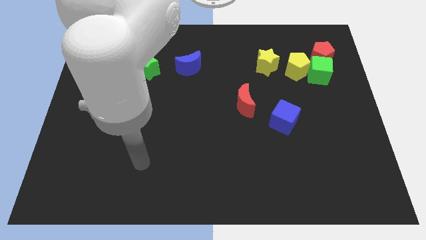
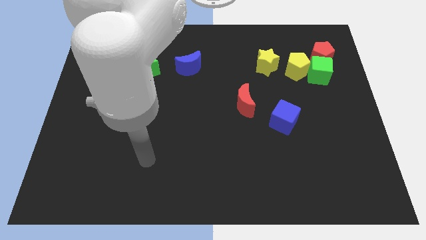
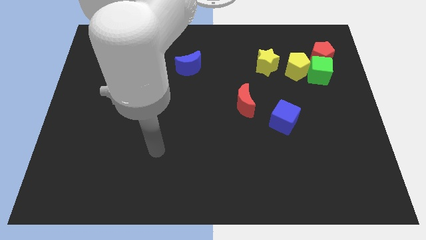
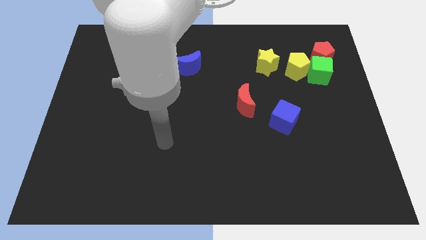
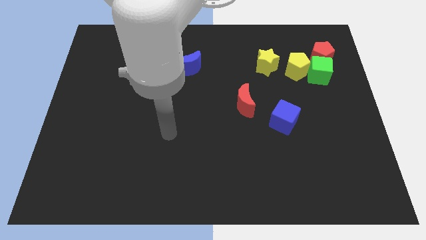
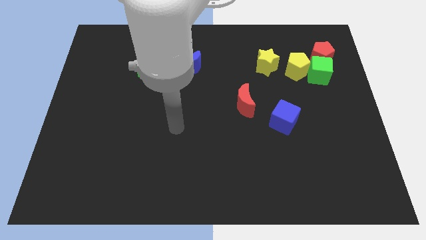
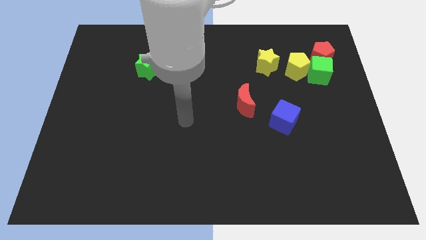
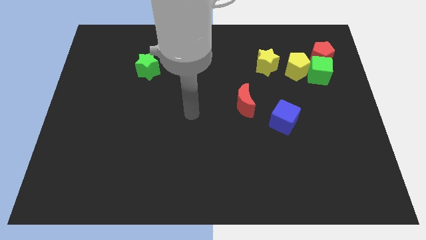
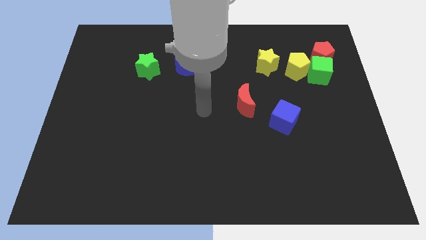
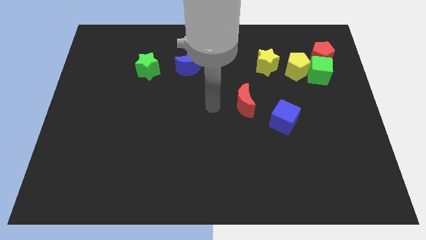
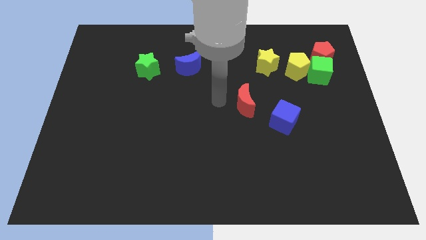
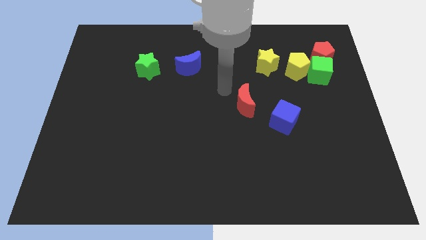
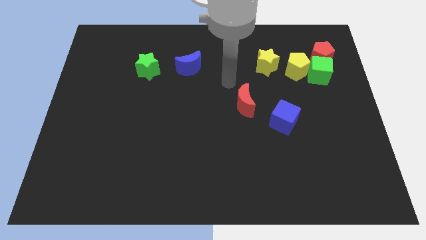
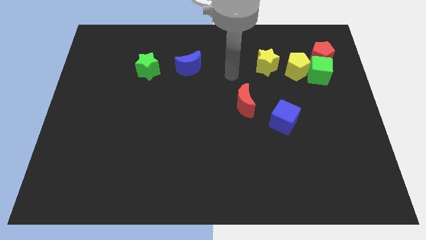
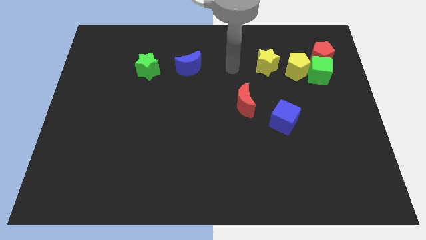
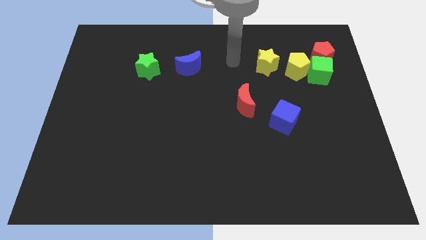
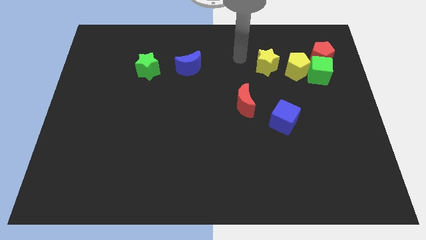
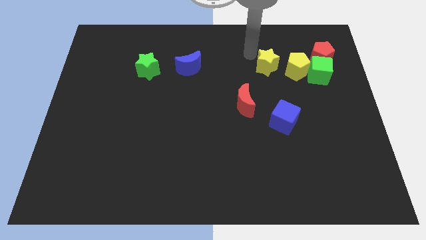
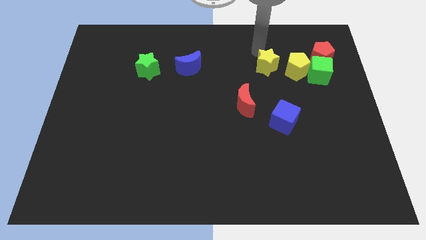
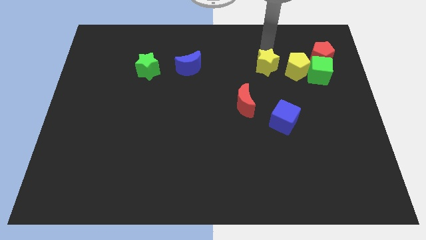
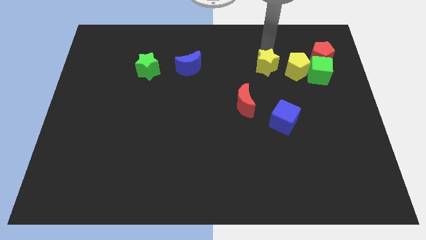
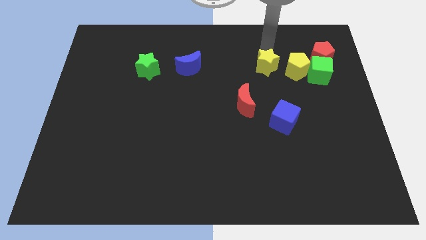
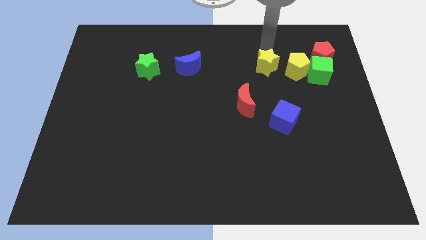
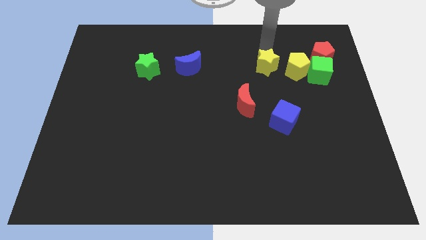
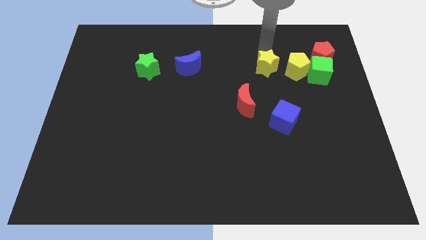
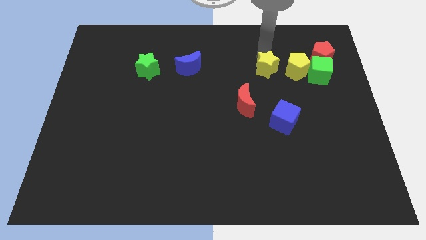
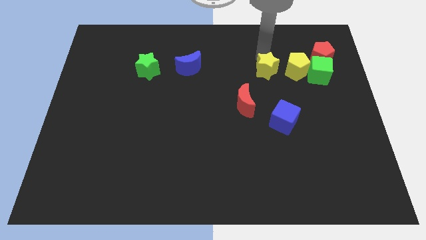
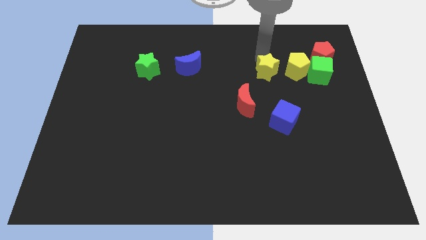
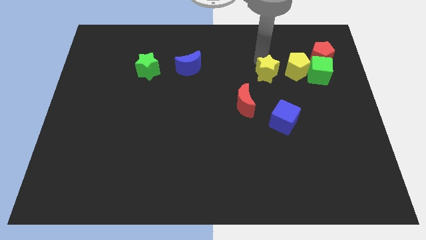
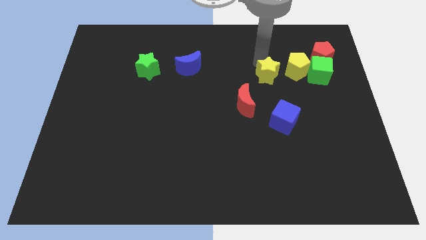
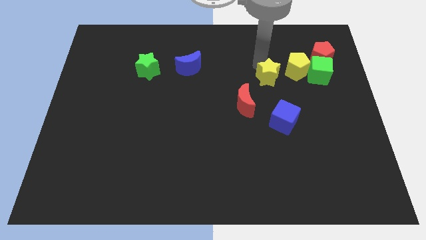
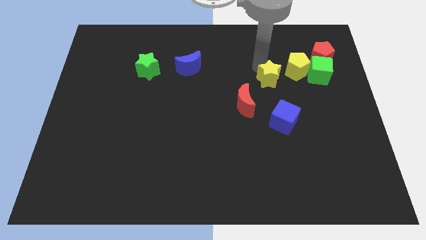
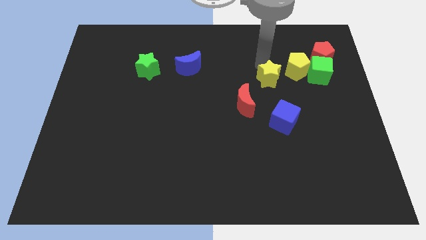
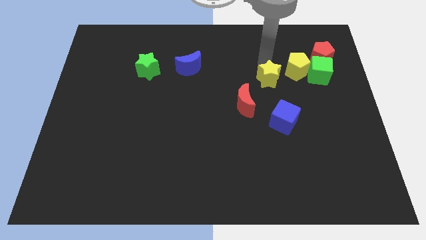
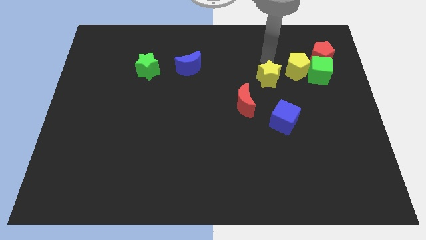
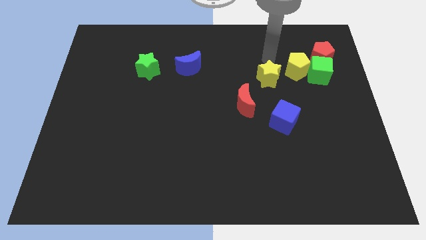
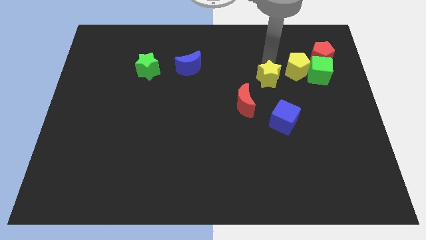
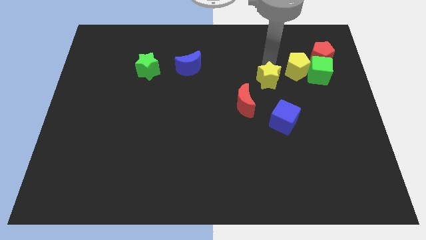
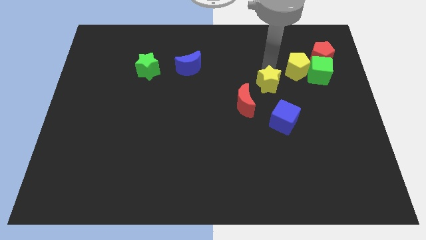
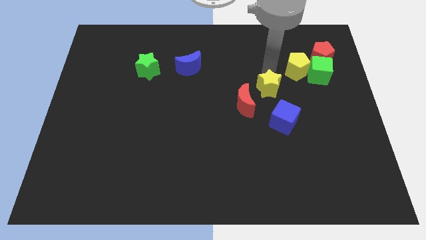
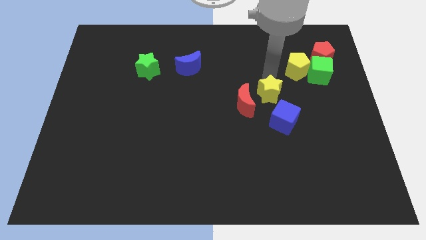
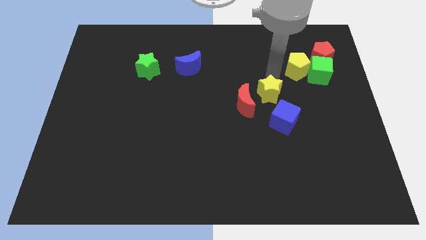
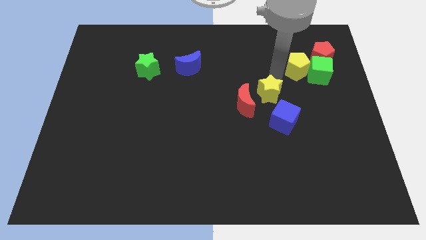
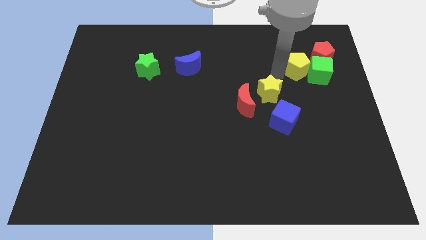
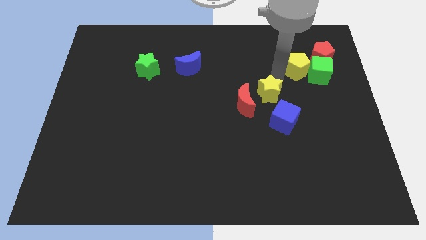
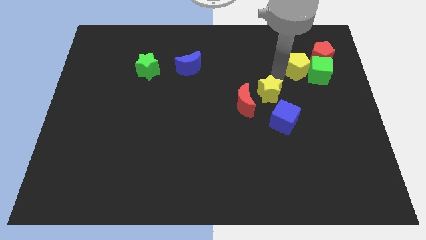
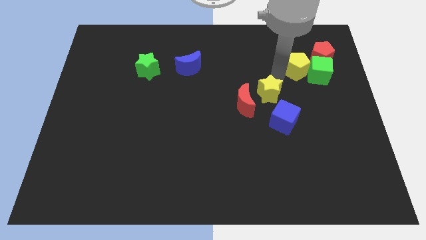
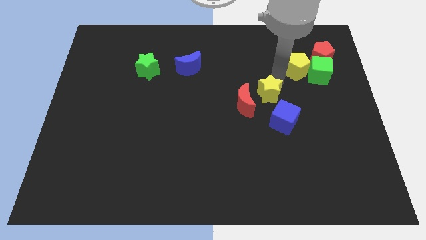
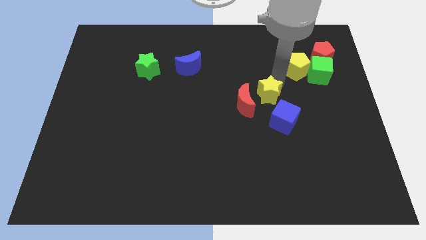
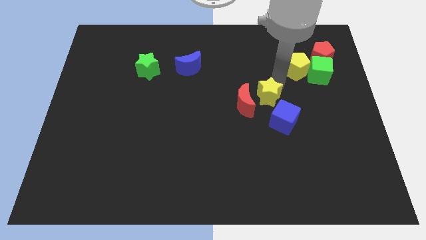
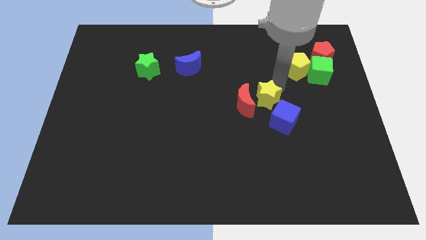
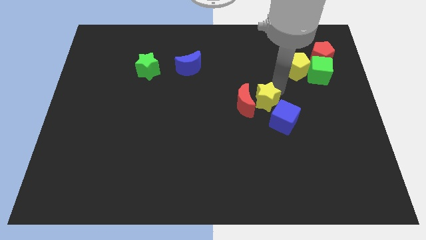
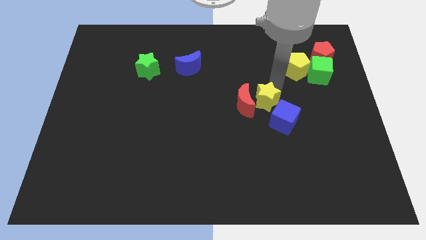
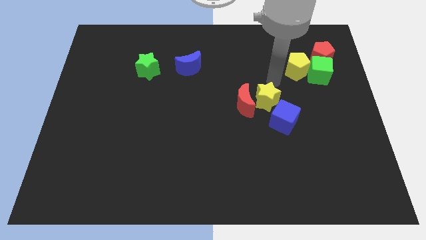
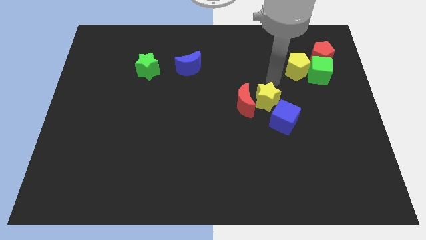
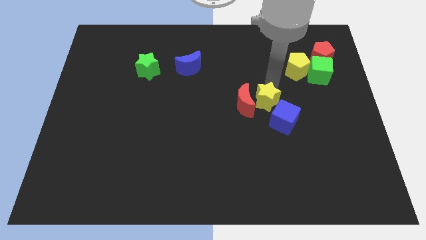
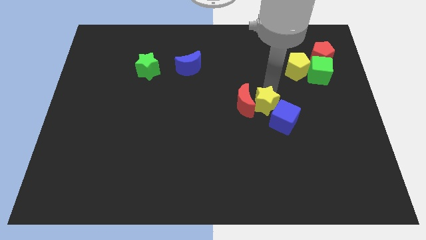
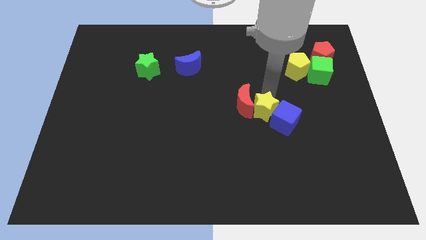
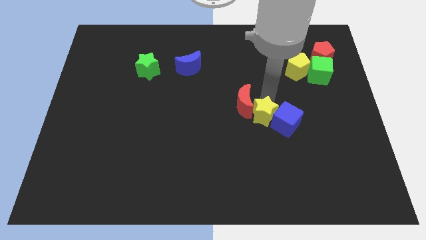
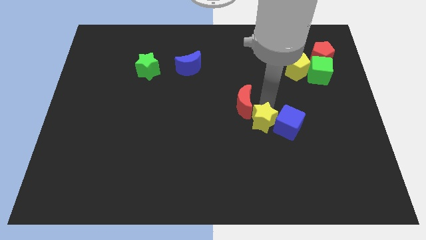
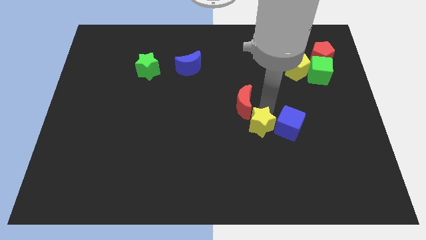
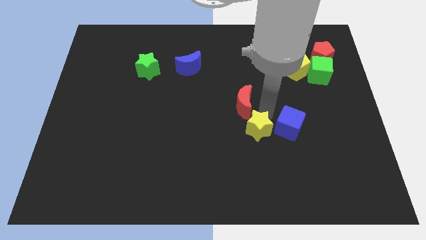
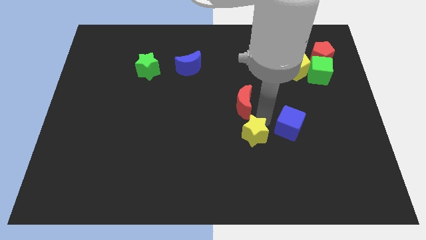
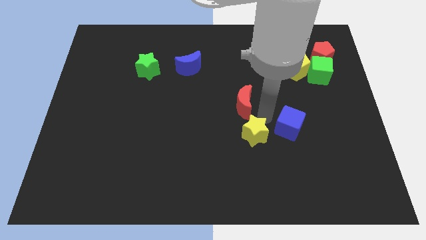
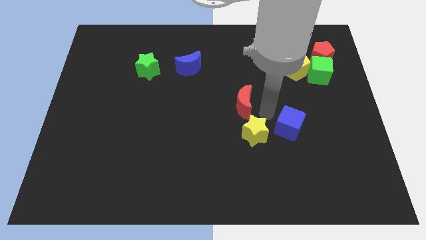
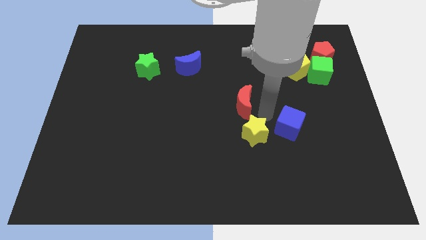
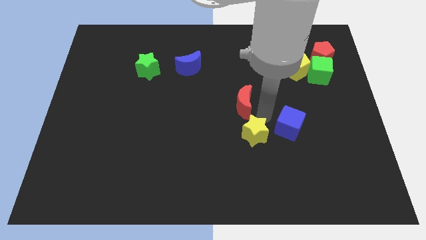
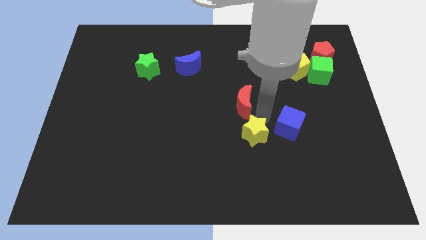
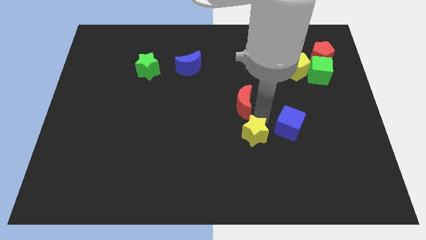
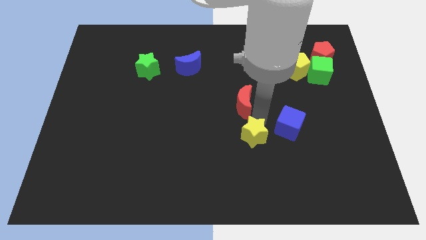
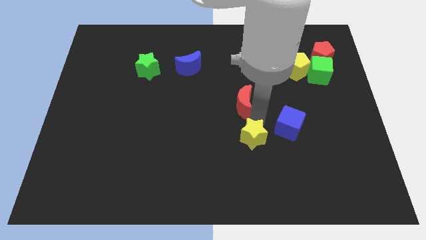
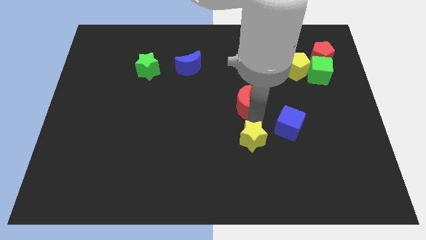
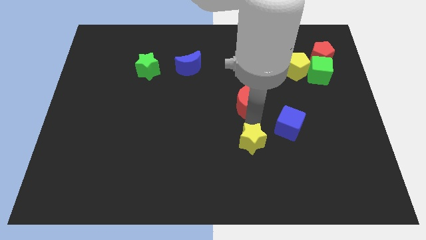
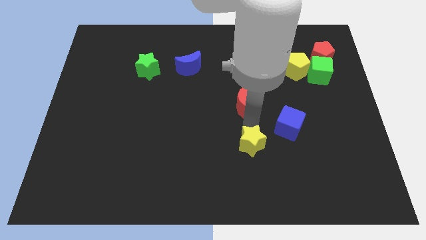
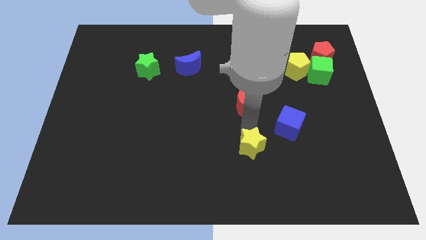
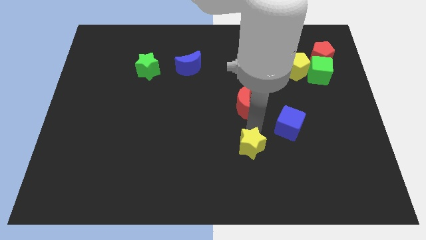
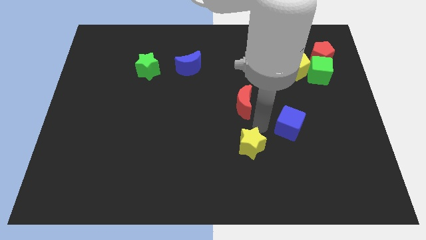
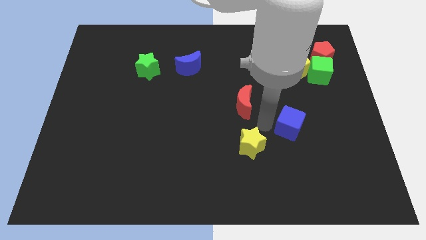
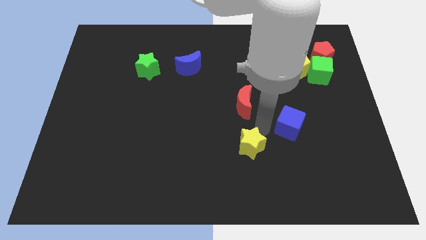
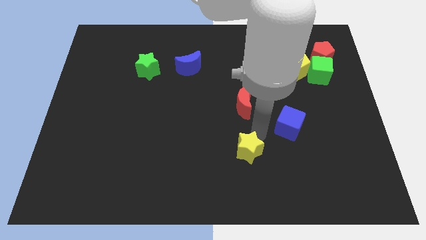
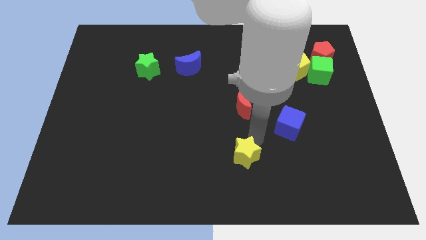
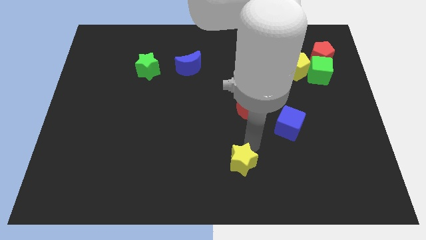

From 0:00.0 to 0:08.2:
slide the yellow star to the bottom side
